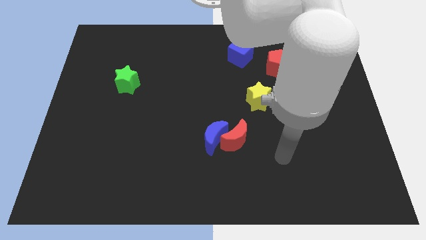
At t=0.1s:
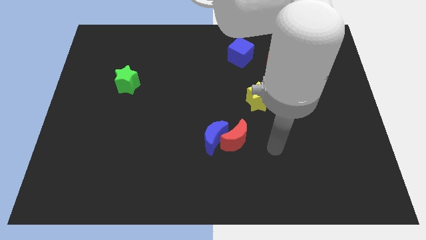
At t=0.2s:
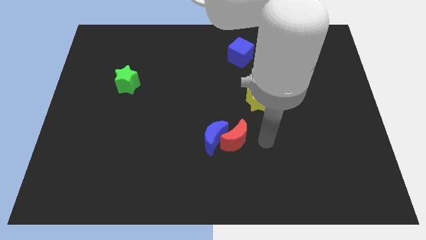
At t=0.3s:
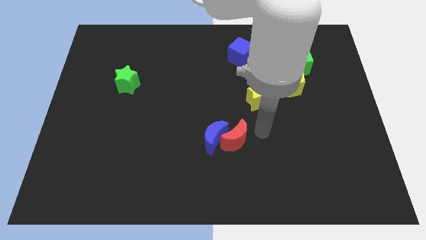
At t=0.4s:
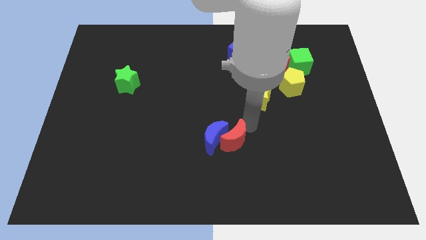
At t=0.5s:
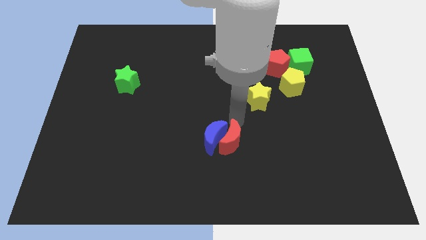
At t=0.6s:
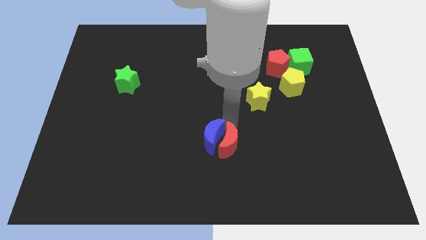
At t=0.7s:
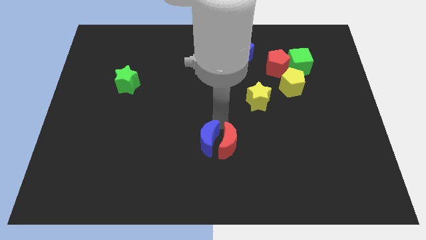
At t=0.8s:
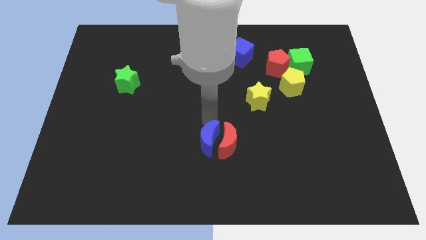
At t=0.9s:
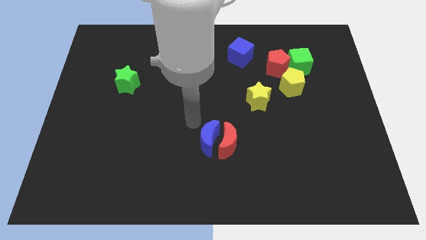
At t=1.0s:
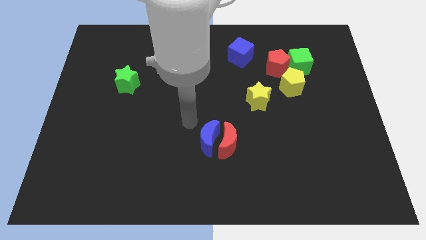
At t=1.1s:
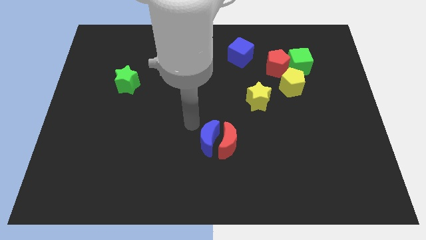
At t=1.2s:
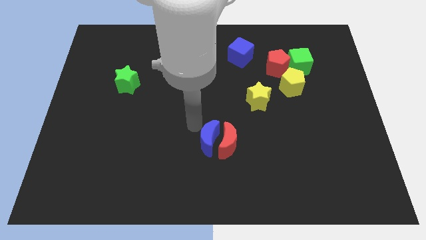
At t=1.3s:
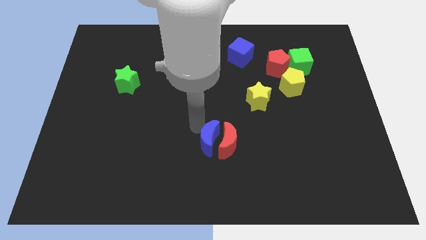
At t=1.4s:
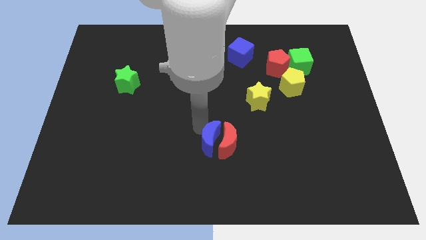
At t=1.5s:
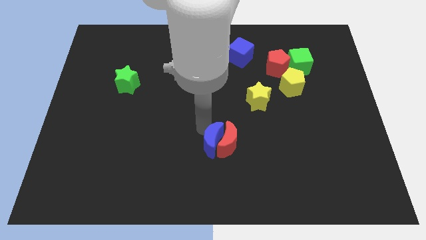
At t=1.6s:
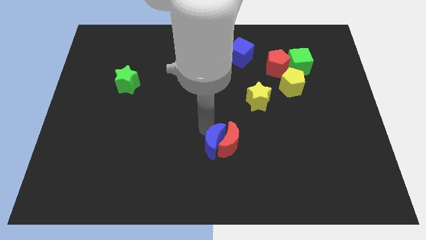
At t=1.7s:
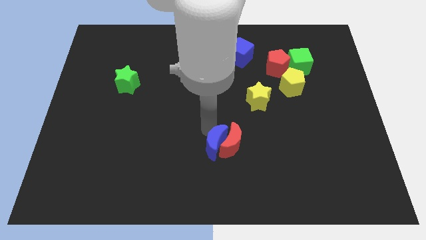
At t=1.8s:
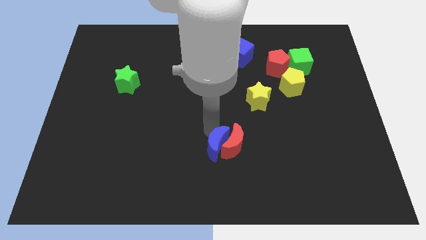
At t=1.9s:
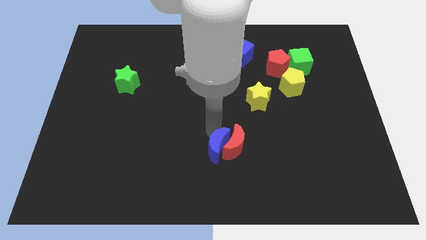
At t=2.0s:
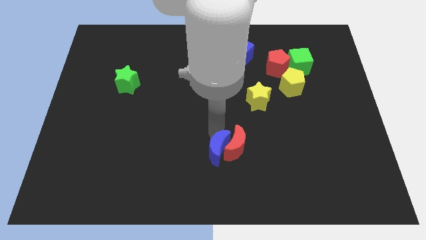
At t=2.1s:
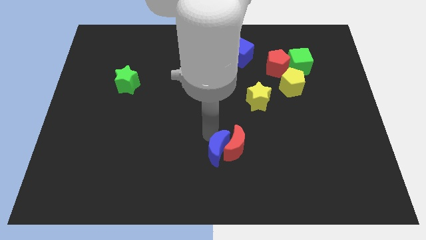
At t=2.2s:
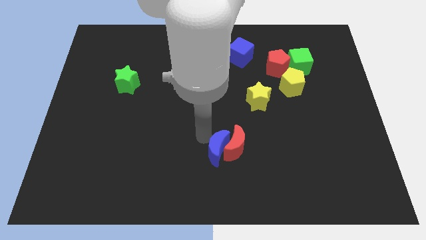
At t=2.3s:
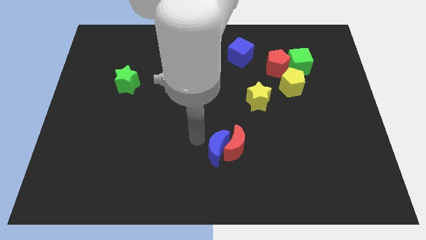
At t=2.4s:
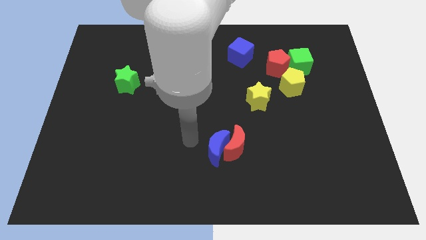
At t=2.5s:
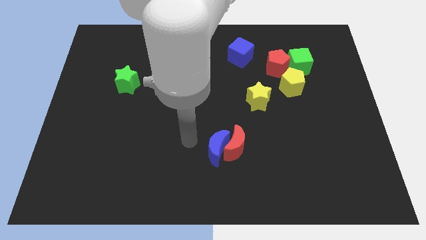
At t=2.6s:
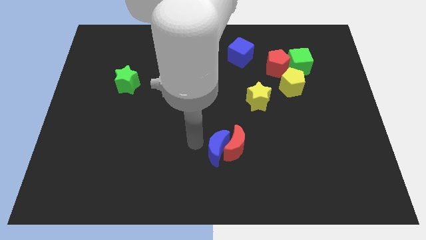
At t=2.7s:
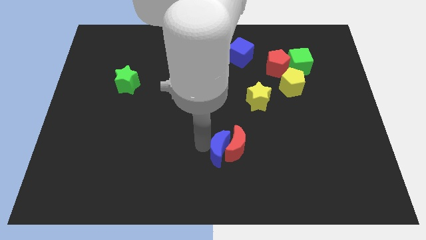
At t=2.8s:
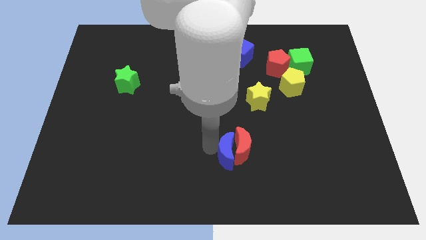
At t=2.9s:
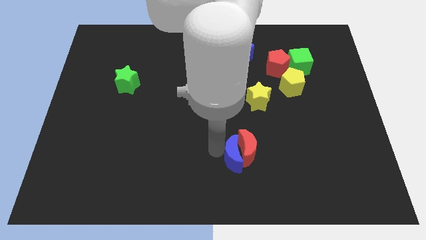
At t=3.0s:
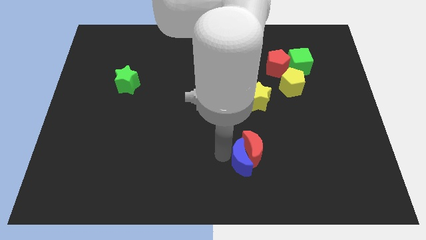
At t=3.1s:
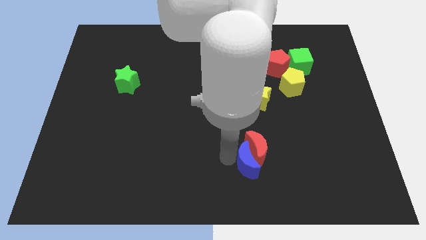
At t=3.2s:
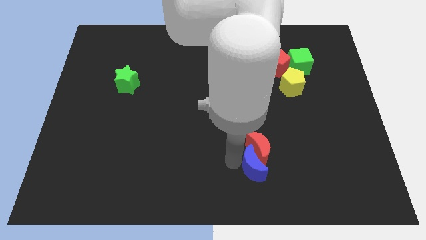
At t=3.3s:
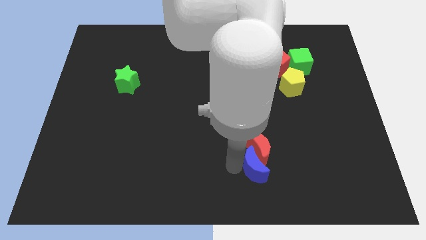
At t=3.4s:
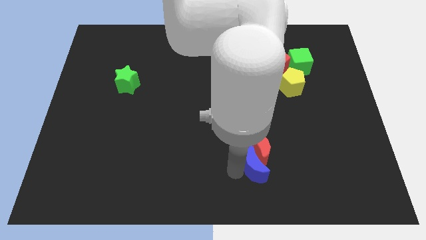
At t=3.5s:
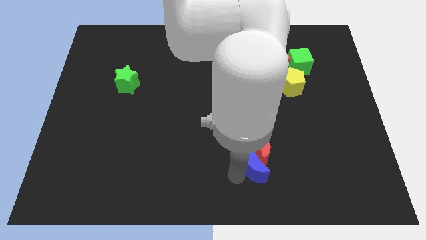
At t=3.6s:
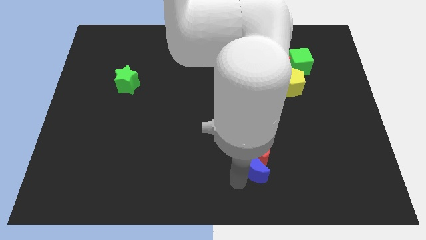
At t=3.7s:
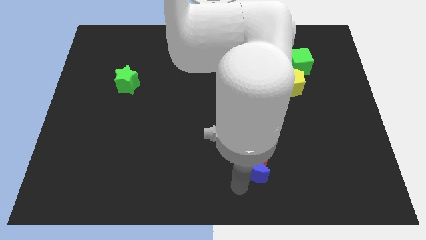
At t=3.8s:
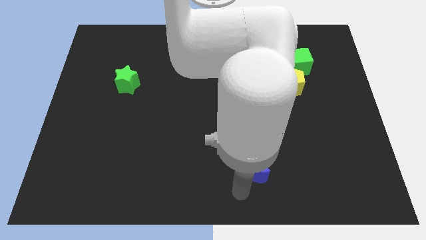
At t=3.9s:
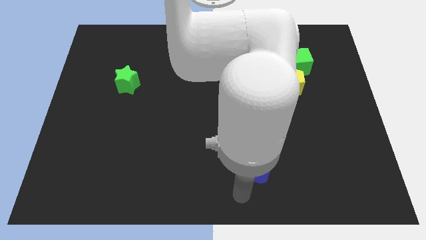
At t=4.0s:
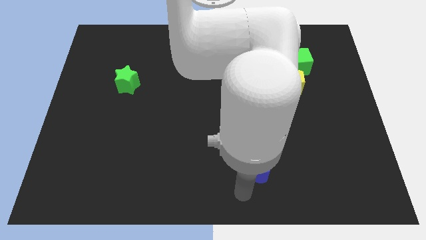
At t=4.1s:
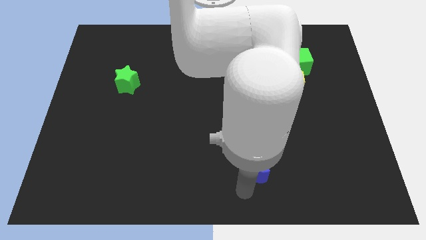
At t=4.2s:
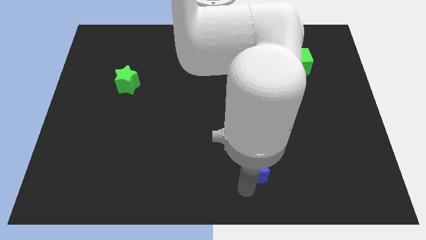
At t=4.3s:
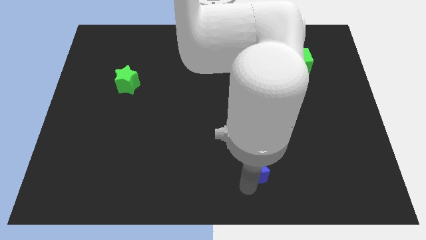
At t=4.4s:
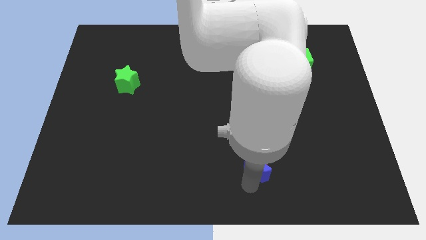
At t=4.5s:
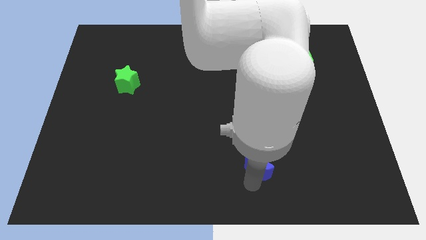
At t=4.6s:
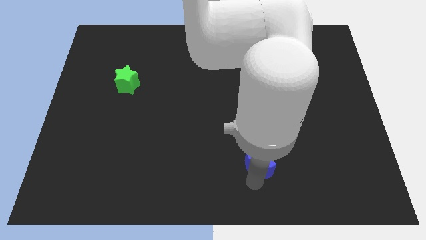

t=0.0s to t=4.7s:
slide the blue moon a little bit to the right

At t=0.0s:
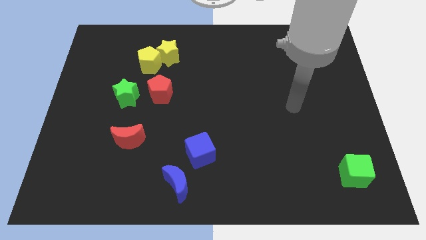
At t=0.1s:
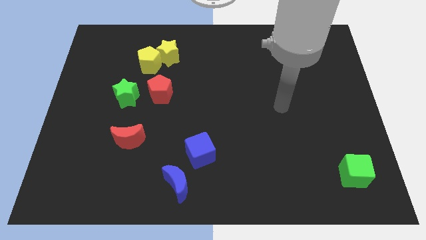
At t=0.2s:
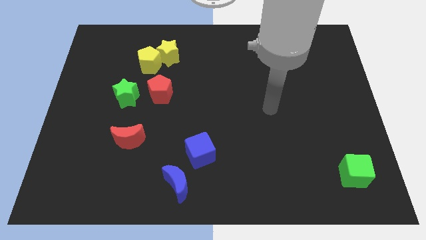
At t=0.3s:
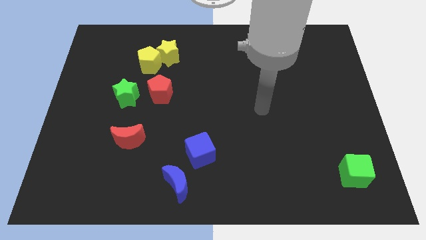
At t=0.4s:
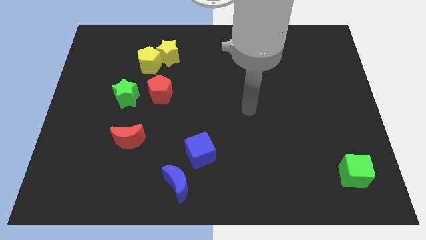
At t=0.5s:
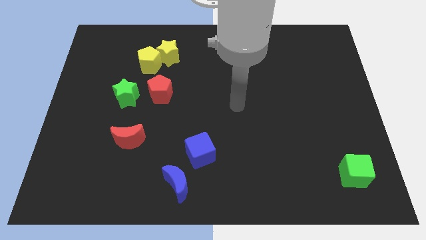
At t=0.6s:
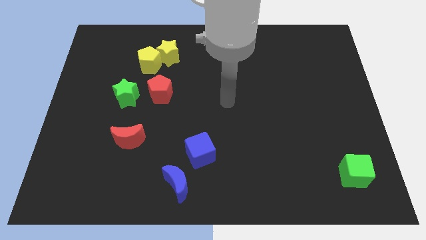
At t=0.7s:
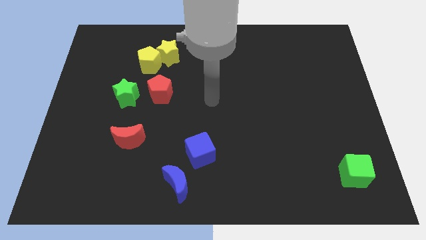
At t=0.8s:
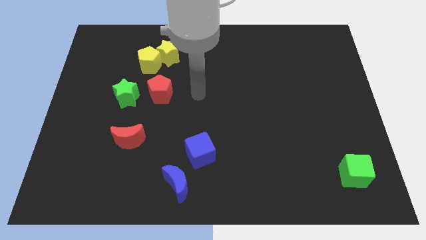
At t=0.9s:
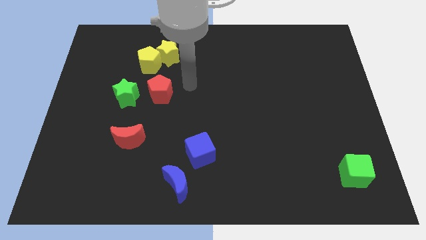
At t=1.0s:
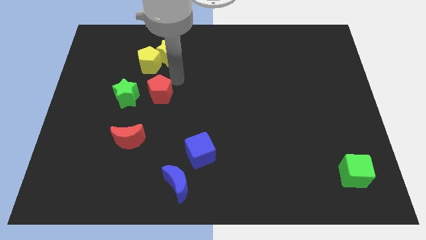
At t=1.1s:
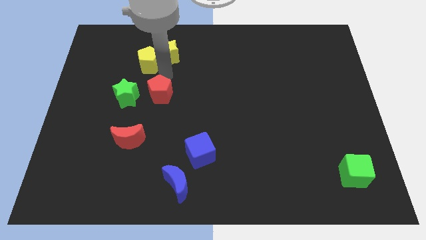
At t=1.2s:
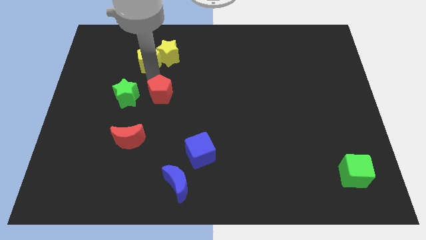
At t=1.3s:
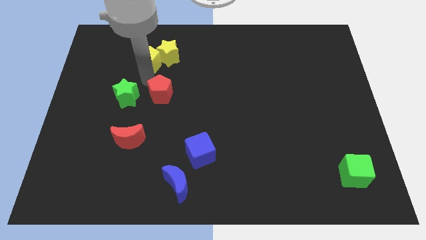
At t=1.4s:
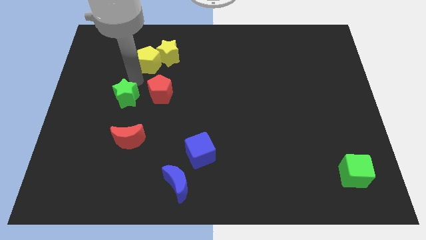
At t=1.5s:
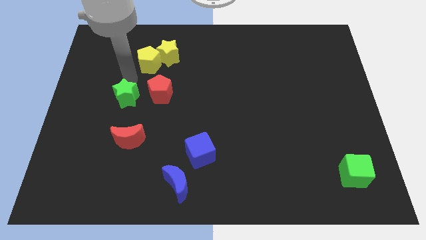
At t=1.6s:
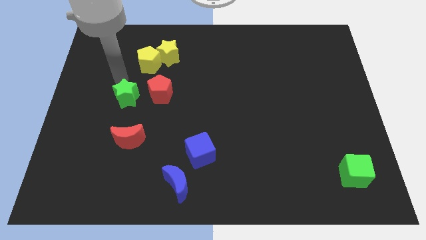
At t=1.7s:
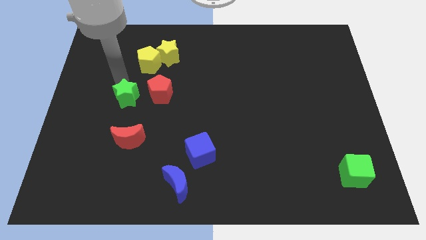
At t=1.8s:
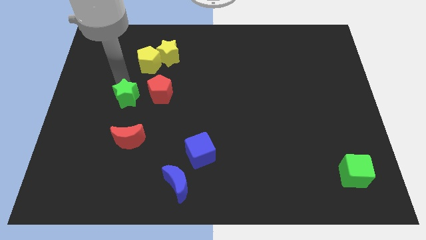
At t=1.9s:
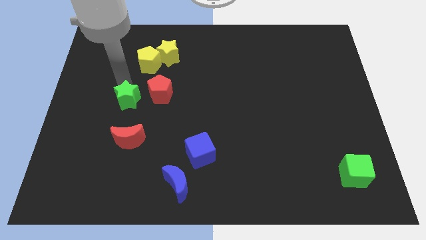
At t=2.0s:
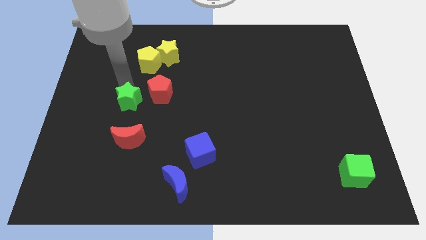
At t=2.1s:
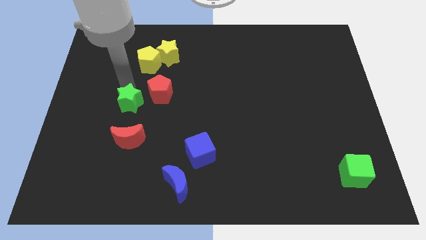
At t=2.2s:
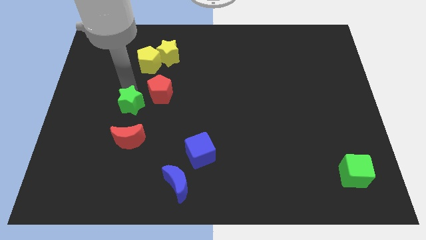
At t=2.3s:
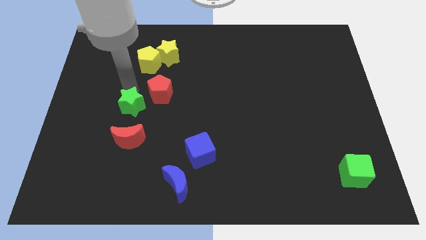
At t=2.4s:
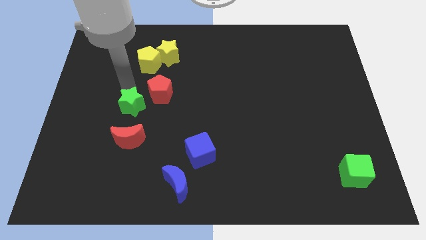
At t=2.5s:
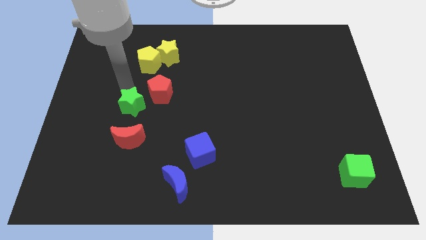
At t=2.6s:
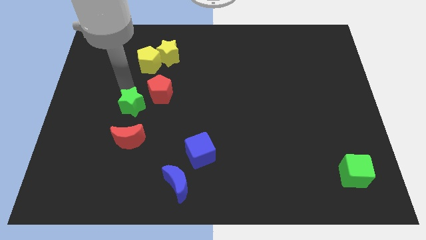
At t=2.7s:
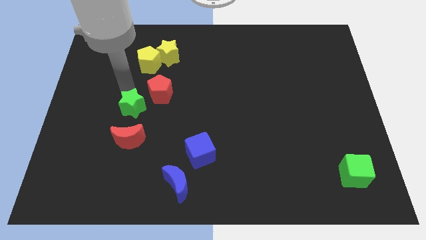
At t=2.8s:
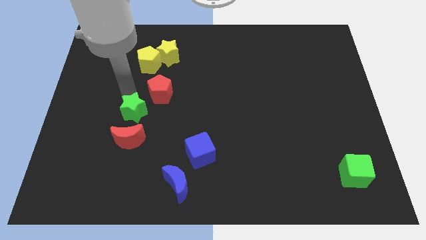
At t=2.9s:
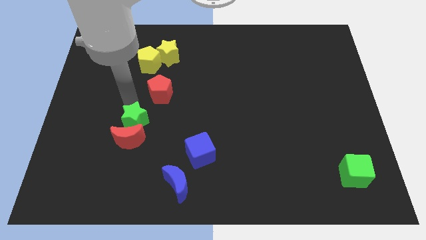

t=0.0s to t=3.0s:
push the green star downwards and then right a little

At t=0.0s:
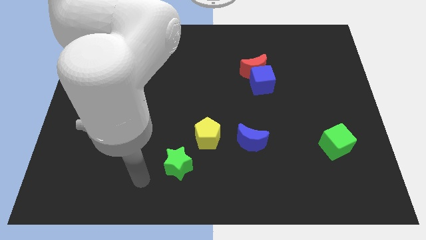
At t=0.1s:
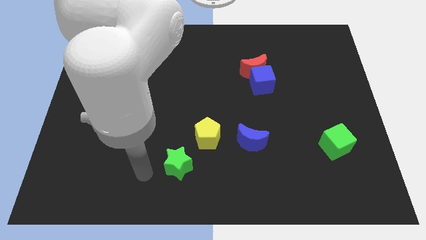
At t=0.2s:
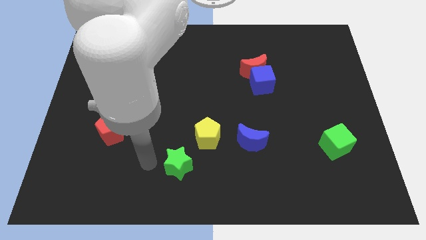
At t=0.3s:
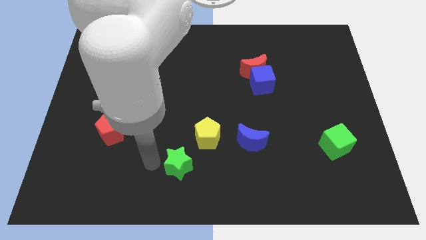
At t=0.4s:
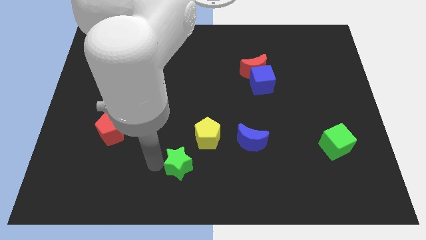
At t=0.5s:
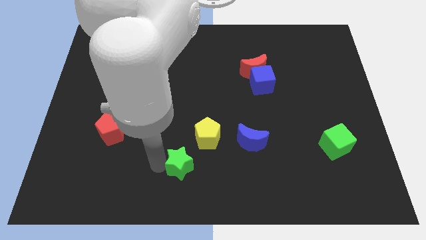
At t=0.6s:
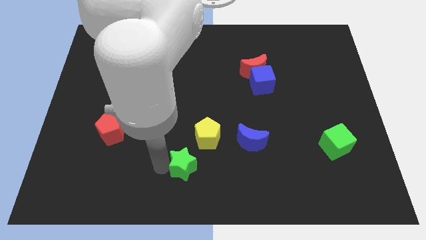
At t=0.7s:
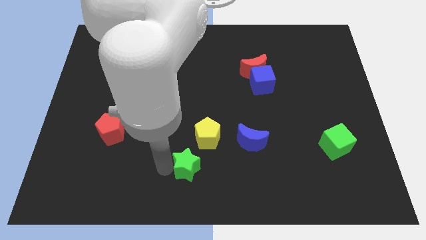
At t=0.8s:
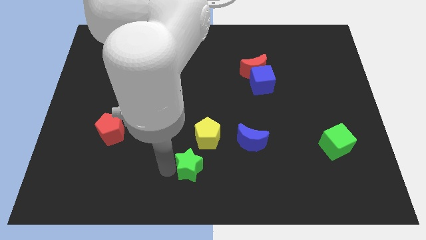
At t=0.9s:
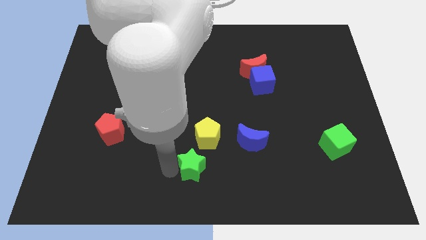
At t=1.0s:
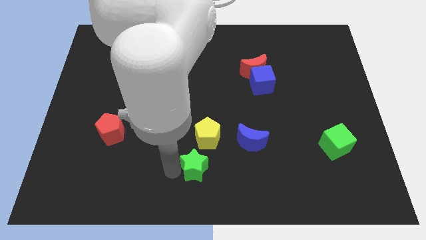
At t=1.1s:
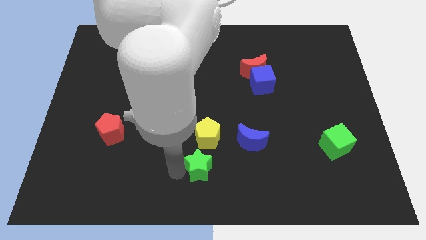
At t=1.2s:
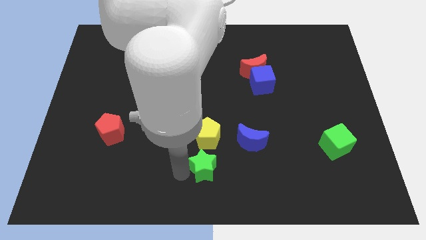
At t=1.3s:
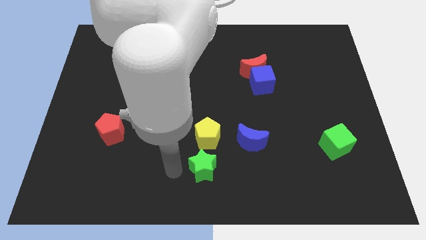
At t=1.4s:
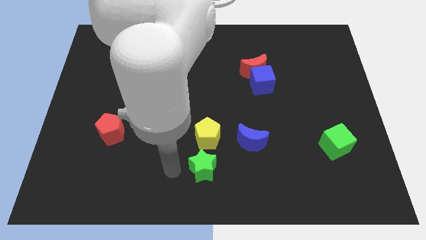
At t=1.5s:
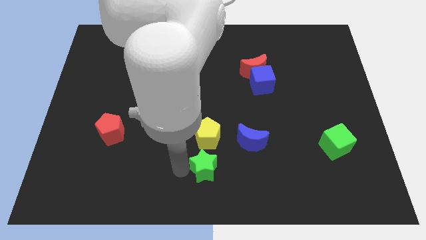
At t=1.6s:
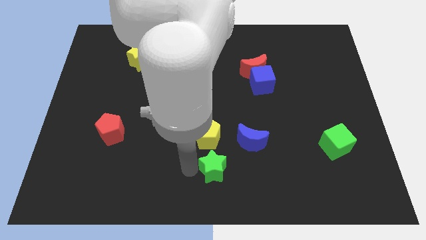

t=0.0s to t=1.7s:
slightly move the green star to the right
